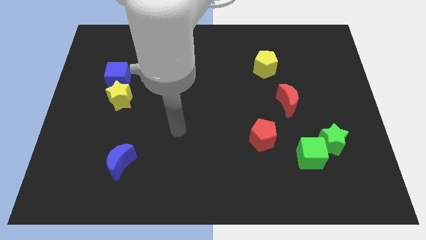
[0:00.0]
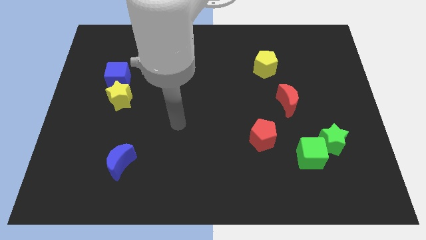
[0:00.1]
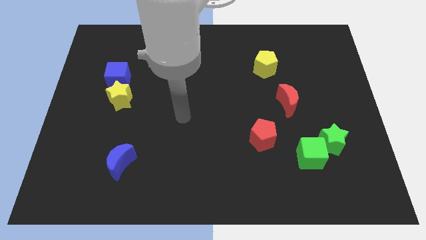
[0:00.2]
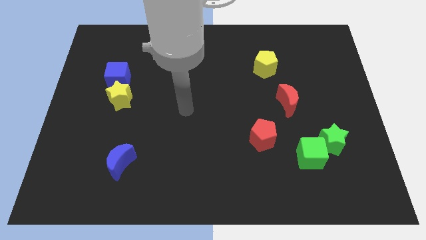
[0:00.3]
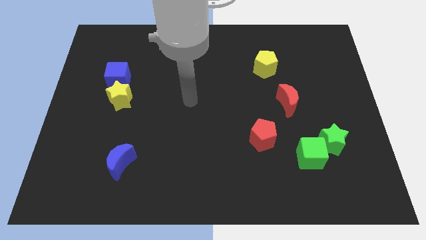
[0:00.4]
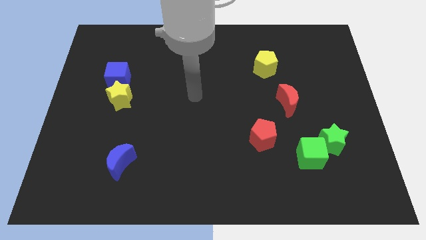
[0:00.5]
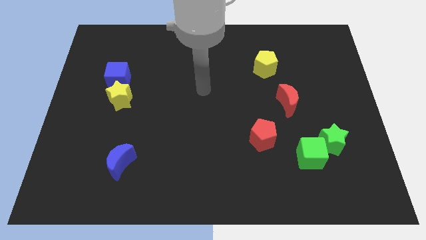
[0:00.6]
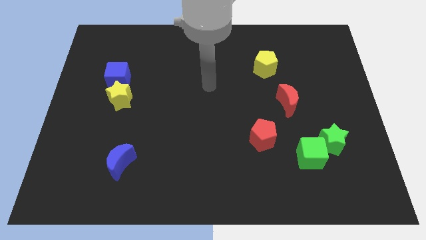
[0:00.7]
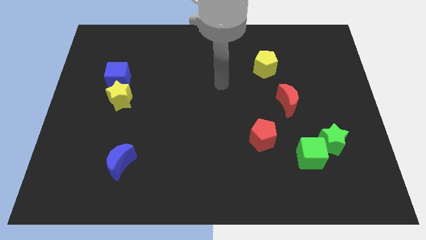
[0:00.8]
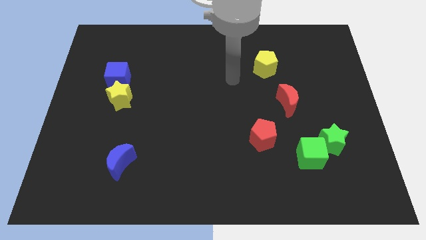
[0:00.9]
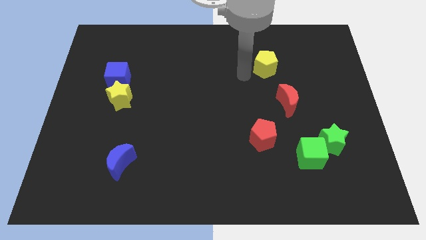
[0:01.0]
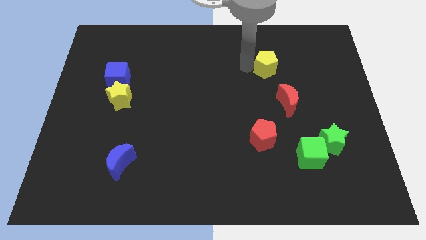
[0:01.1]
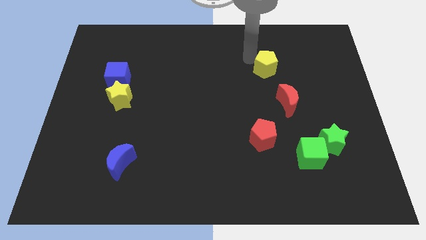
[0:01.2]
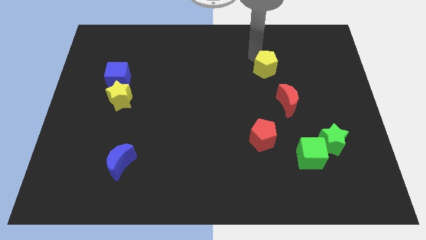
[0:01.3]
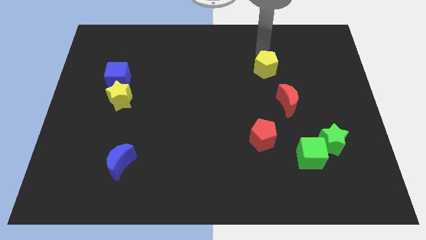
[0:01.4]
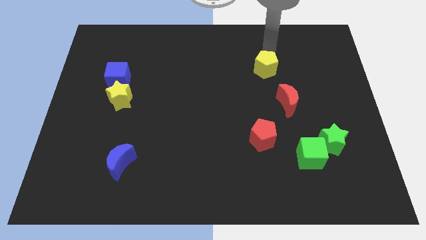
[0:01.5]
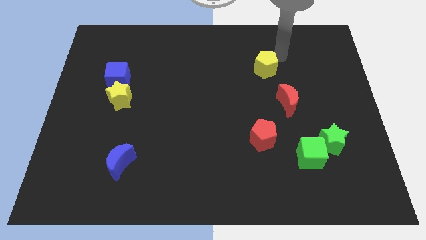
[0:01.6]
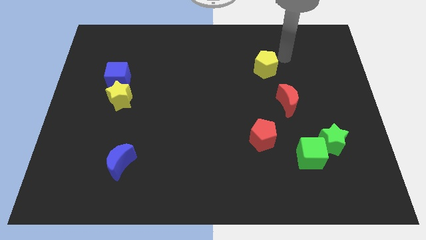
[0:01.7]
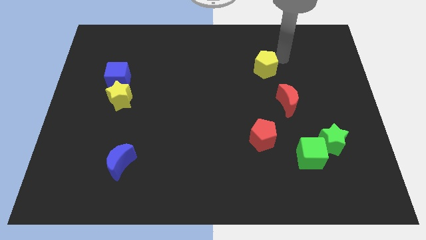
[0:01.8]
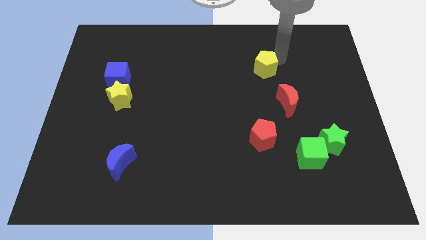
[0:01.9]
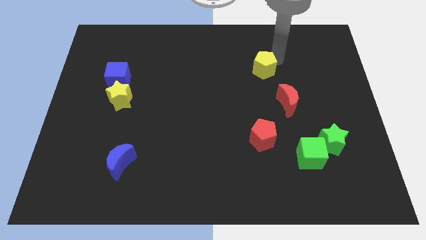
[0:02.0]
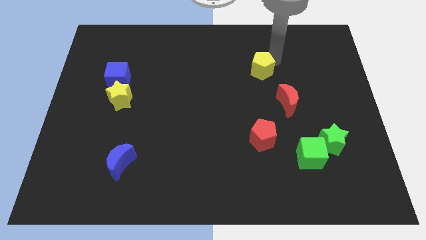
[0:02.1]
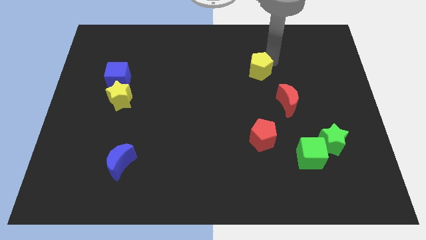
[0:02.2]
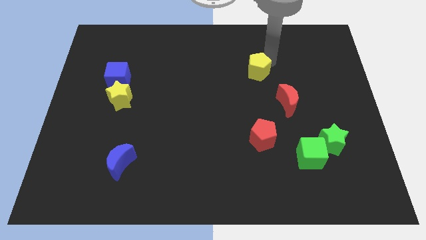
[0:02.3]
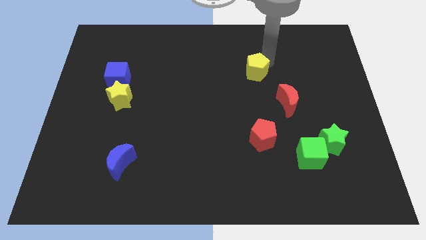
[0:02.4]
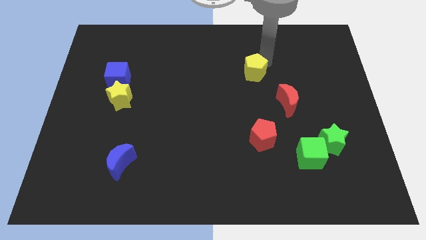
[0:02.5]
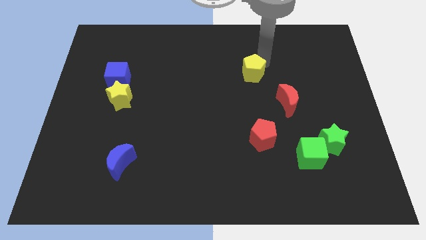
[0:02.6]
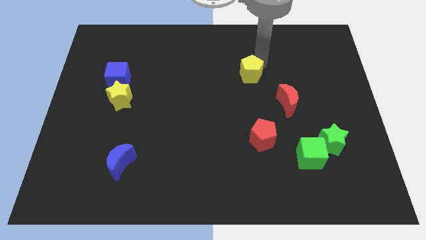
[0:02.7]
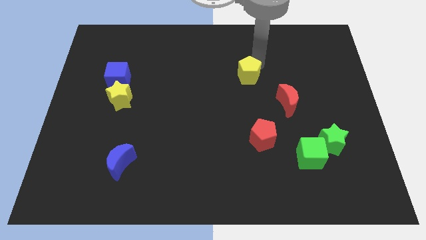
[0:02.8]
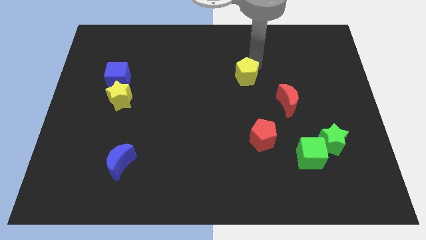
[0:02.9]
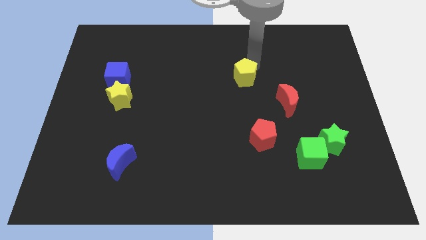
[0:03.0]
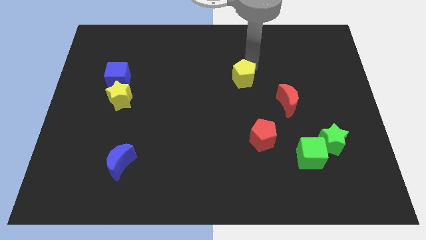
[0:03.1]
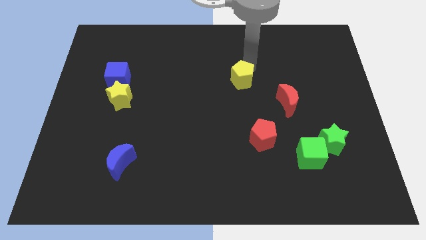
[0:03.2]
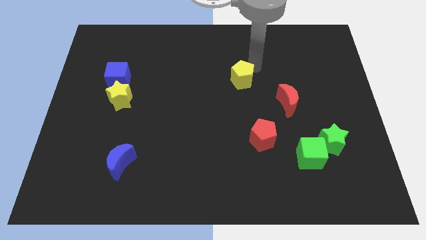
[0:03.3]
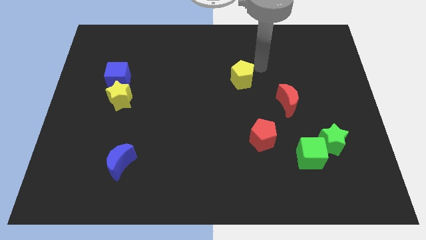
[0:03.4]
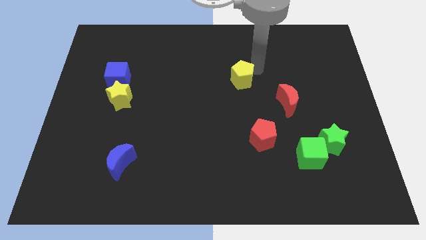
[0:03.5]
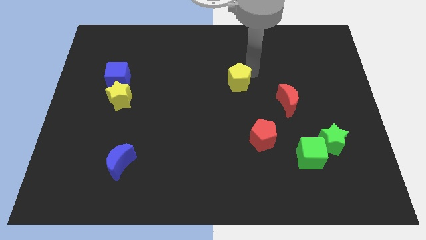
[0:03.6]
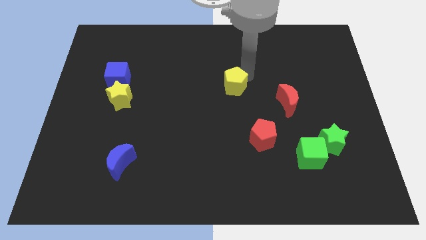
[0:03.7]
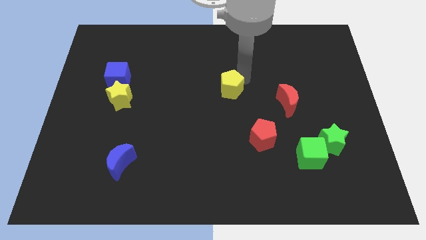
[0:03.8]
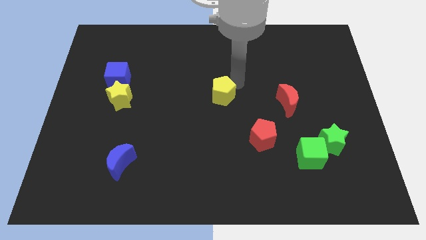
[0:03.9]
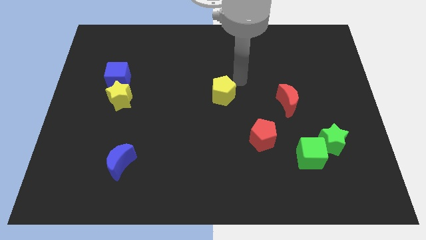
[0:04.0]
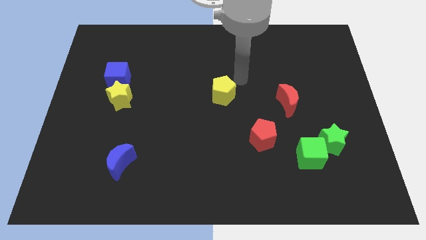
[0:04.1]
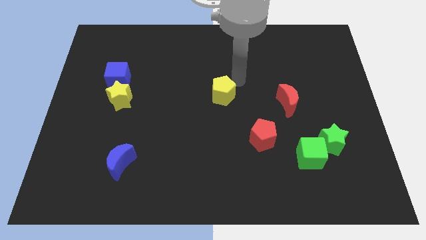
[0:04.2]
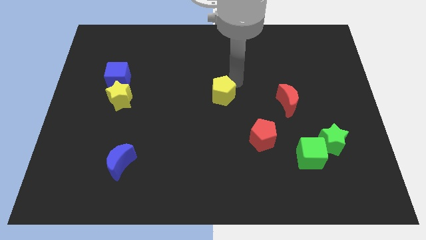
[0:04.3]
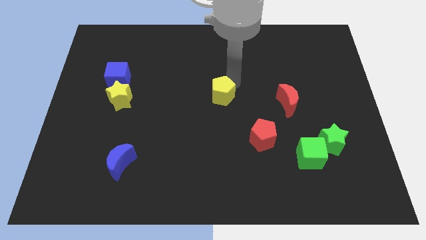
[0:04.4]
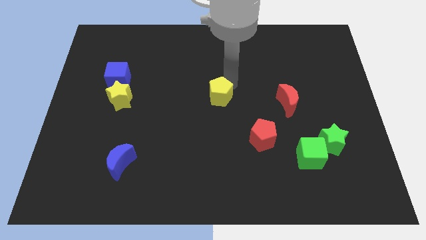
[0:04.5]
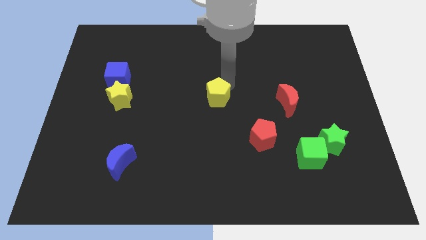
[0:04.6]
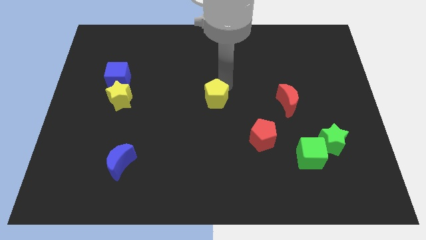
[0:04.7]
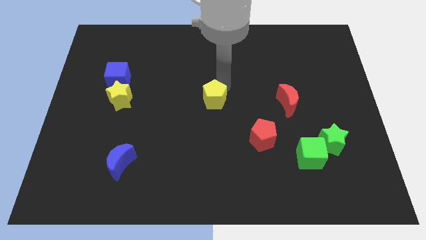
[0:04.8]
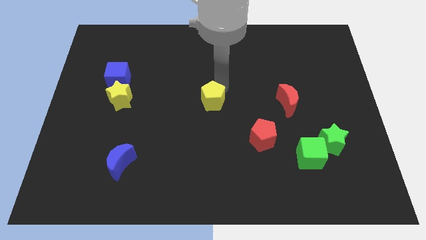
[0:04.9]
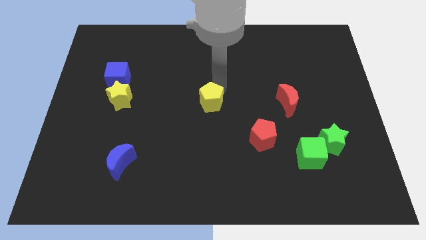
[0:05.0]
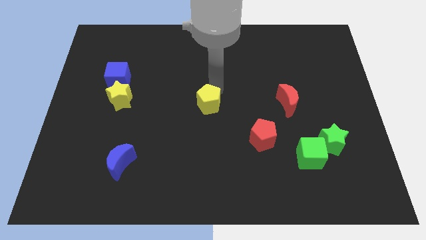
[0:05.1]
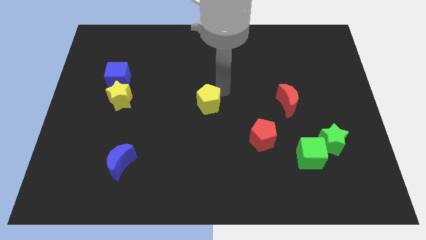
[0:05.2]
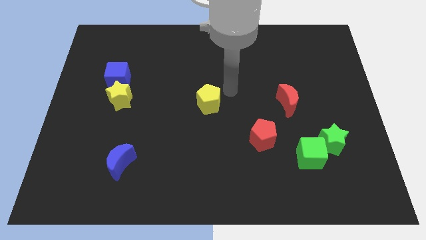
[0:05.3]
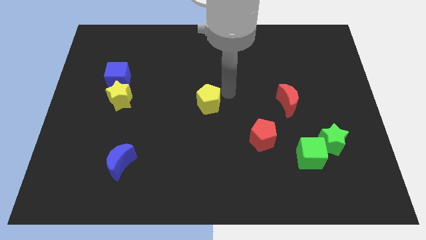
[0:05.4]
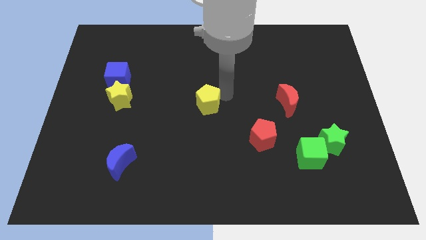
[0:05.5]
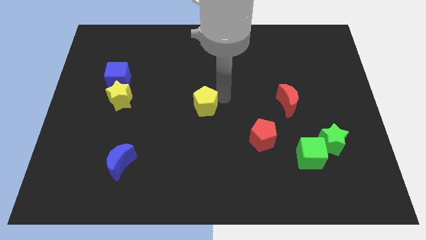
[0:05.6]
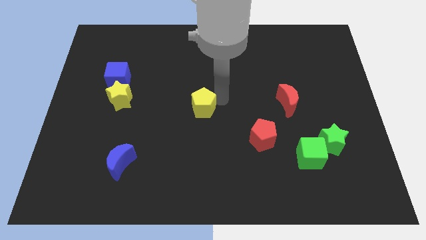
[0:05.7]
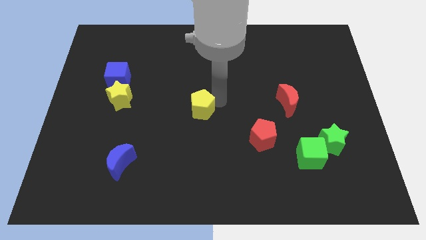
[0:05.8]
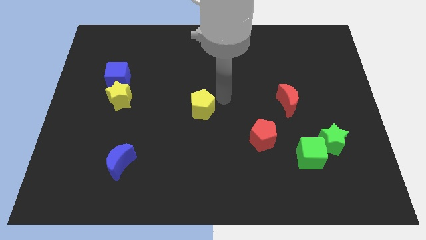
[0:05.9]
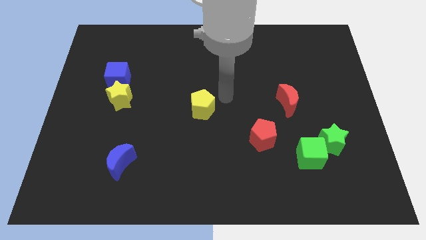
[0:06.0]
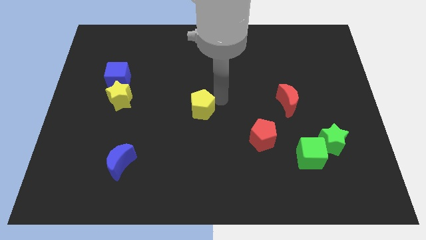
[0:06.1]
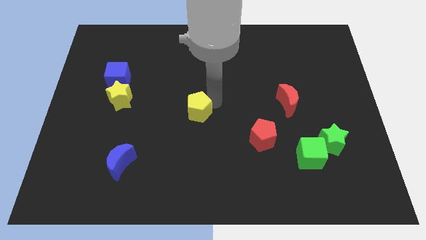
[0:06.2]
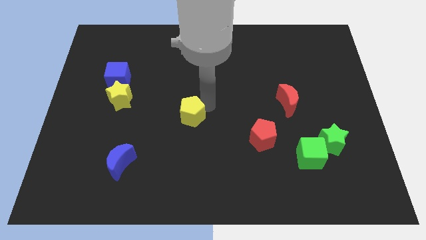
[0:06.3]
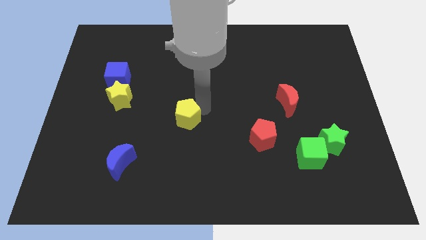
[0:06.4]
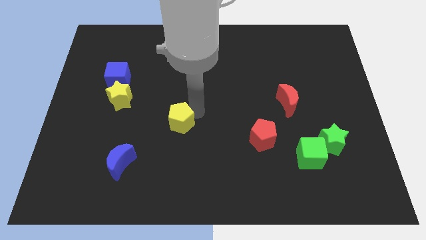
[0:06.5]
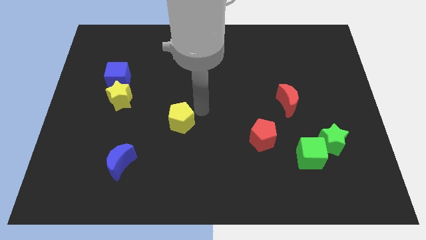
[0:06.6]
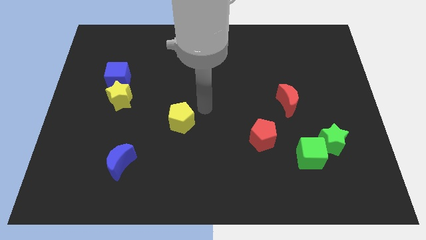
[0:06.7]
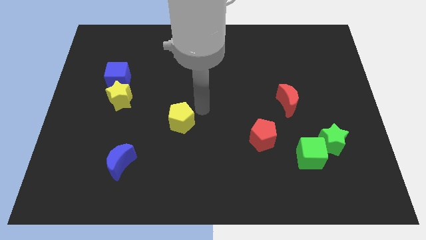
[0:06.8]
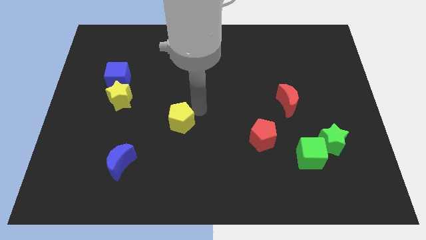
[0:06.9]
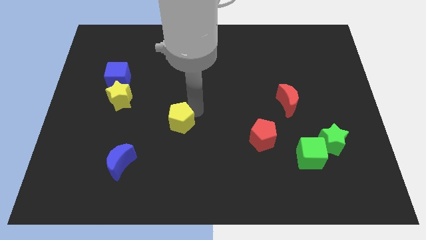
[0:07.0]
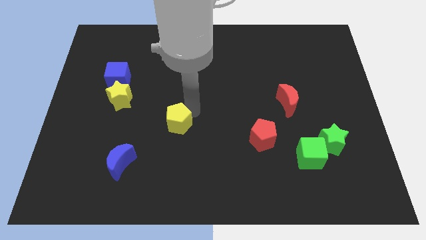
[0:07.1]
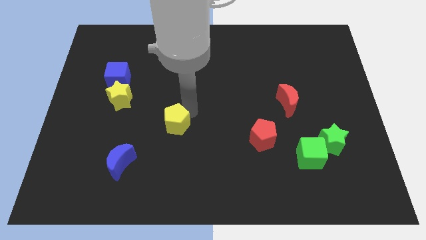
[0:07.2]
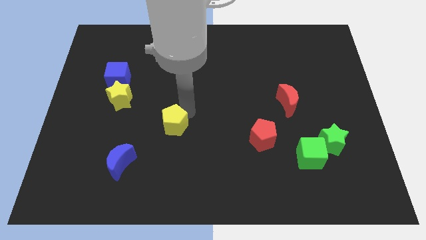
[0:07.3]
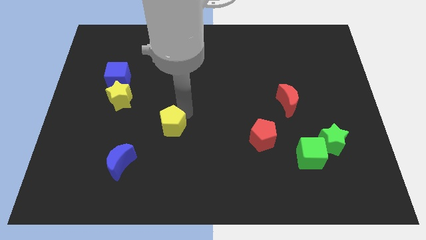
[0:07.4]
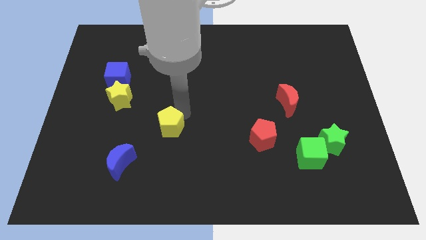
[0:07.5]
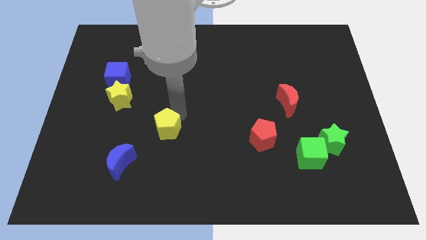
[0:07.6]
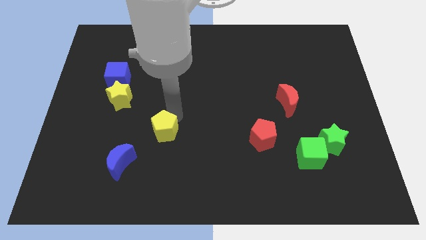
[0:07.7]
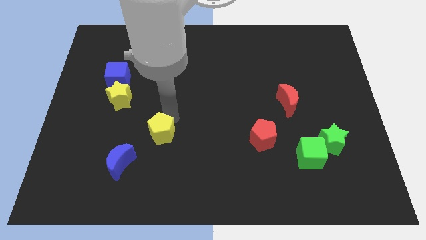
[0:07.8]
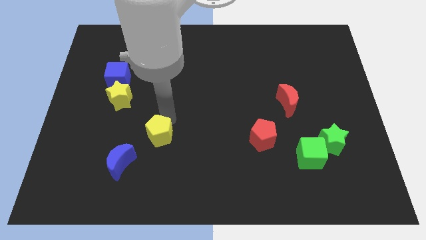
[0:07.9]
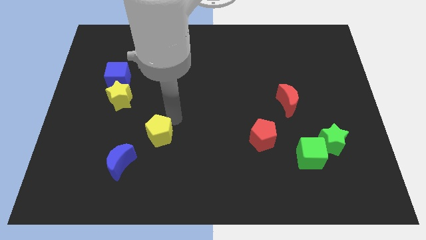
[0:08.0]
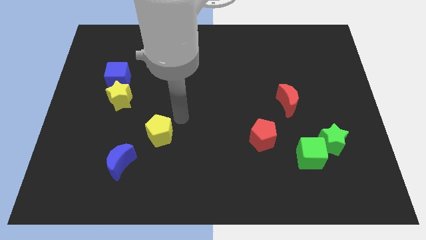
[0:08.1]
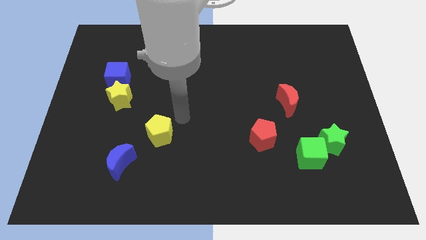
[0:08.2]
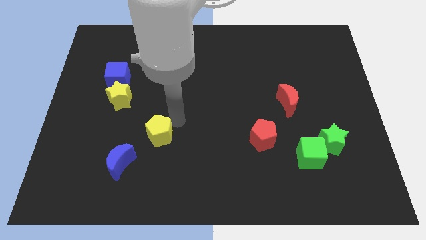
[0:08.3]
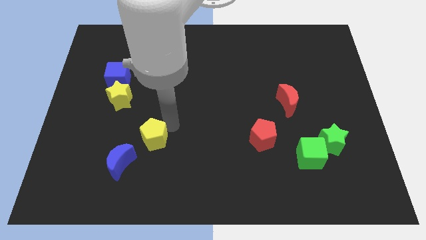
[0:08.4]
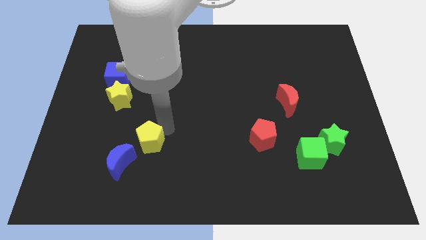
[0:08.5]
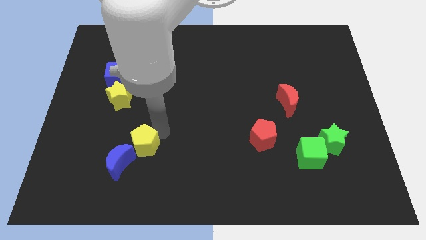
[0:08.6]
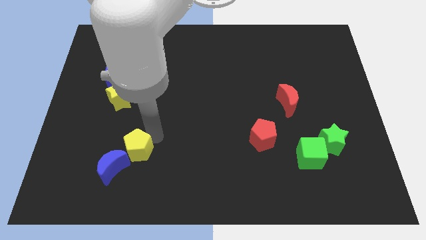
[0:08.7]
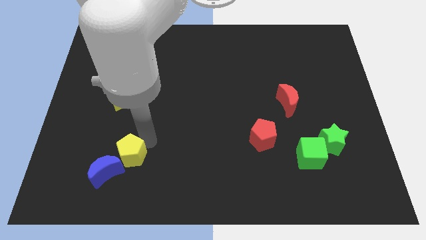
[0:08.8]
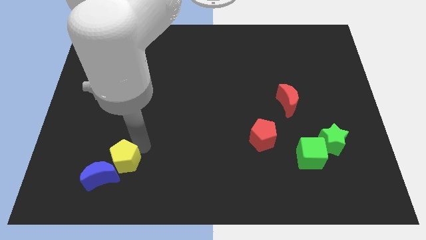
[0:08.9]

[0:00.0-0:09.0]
put the yellow pentagon to the blue moon
